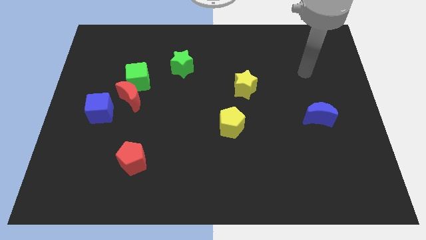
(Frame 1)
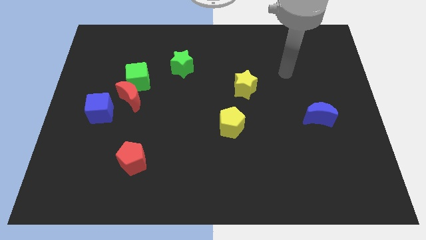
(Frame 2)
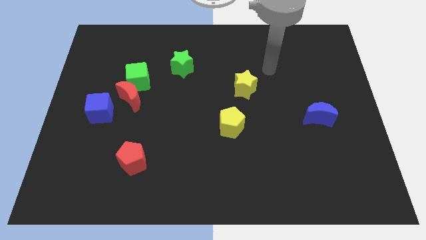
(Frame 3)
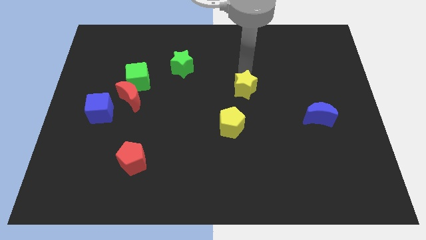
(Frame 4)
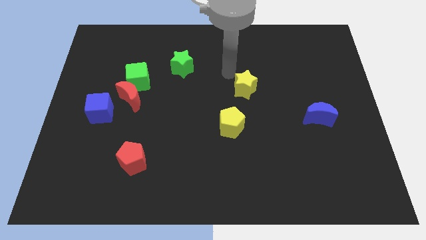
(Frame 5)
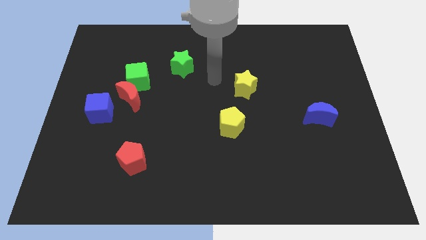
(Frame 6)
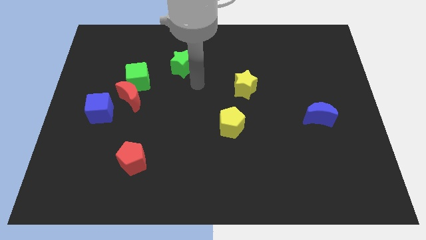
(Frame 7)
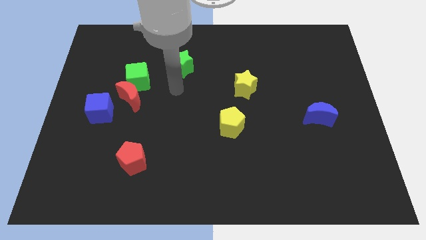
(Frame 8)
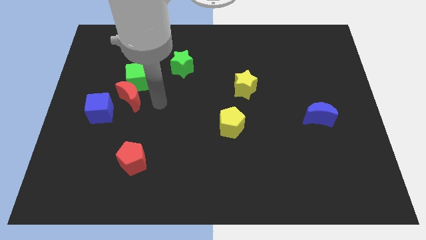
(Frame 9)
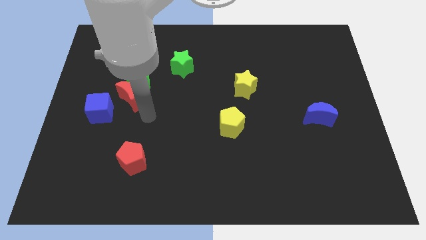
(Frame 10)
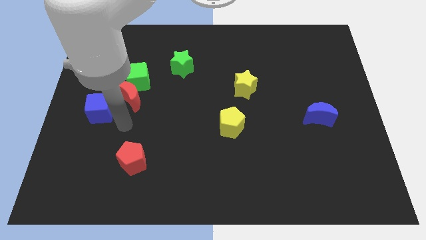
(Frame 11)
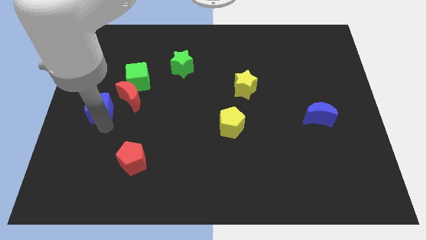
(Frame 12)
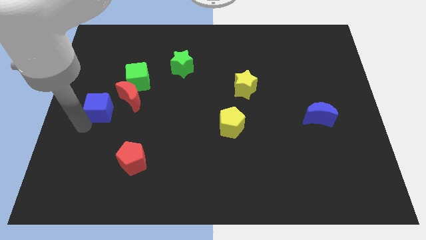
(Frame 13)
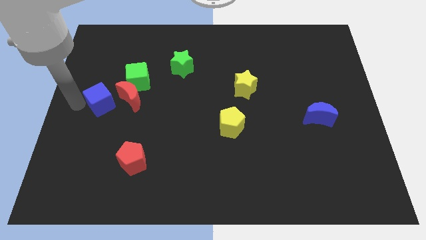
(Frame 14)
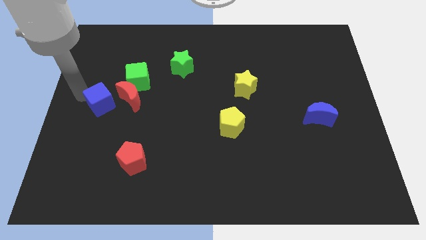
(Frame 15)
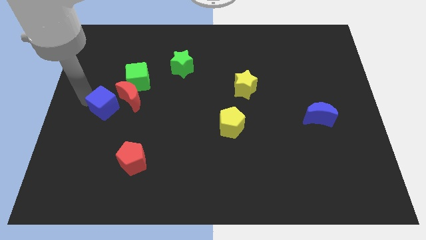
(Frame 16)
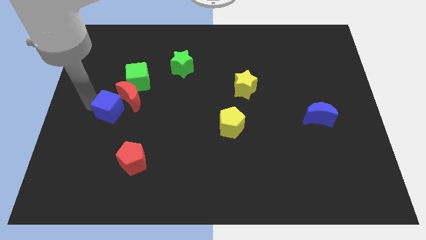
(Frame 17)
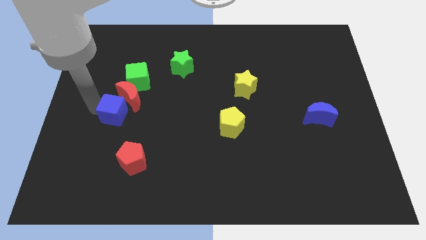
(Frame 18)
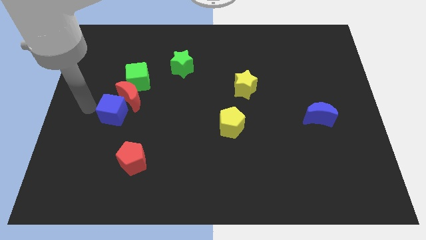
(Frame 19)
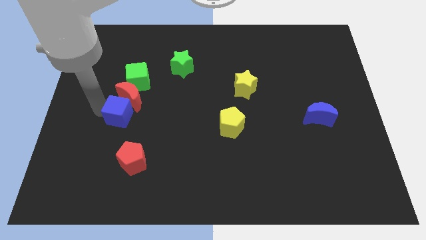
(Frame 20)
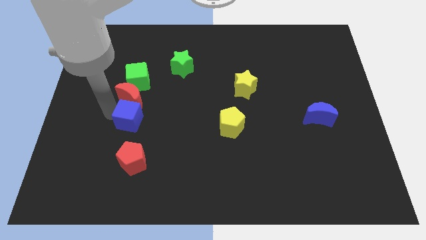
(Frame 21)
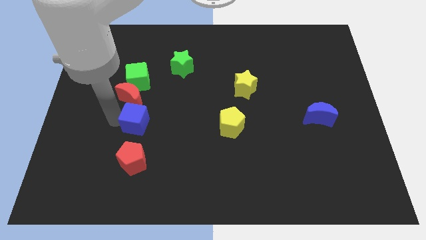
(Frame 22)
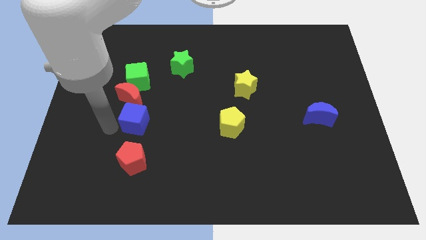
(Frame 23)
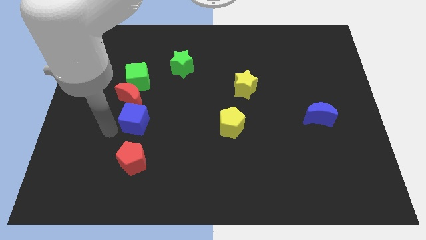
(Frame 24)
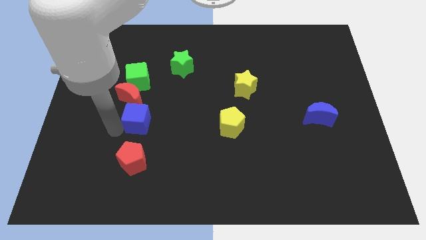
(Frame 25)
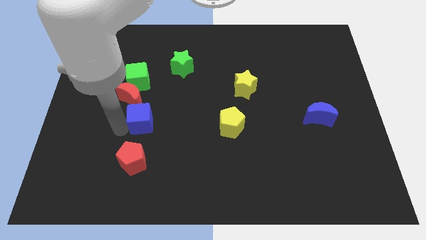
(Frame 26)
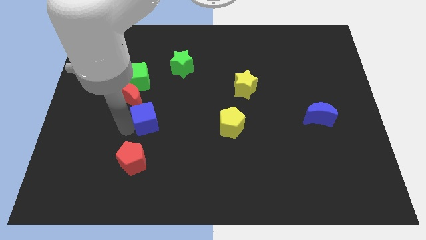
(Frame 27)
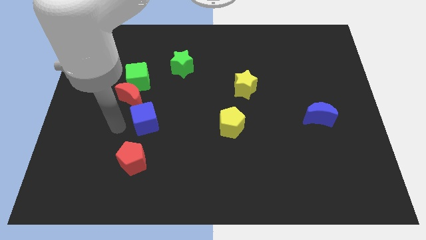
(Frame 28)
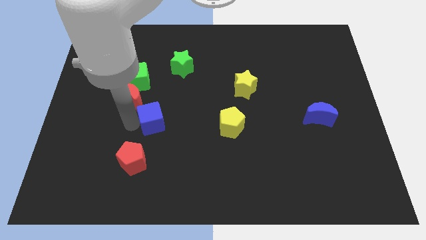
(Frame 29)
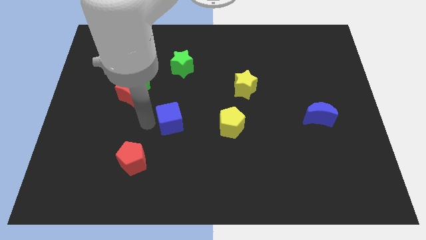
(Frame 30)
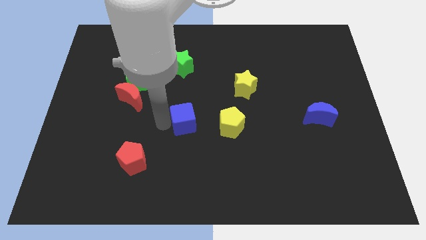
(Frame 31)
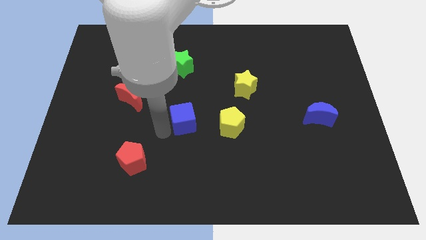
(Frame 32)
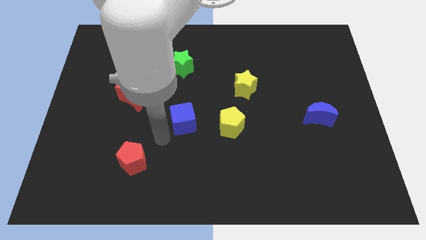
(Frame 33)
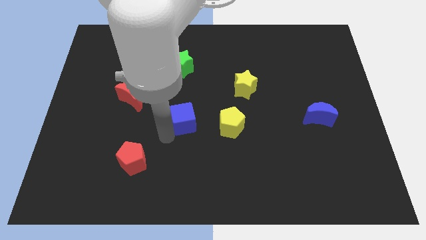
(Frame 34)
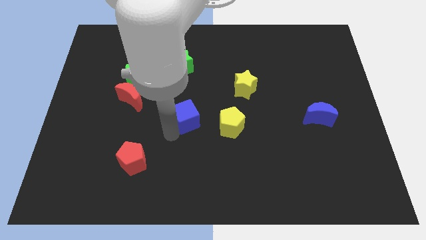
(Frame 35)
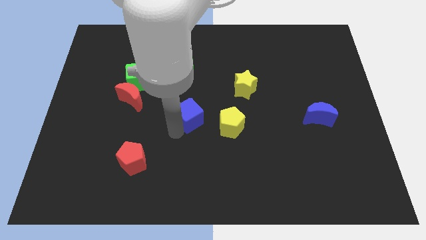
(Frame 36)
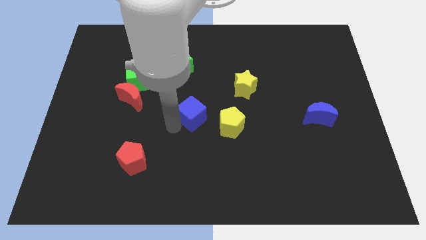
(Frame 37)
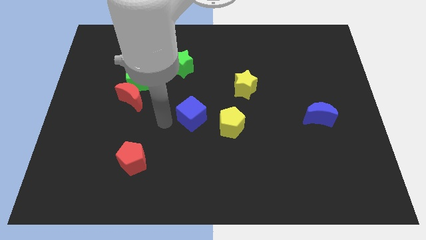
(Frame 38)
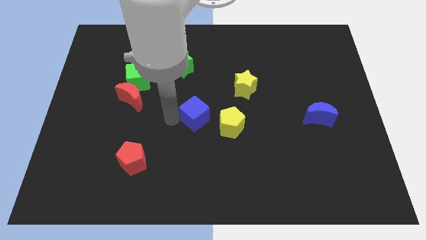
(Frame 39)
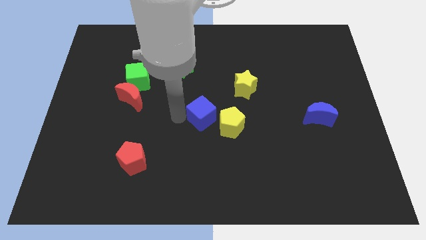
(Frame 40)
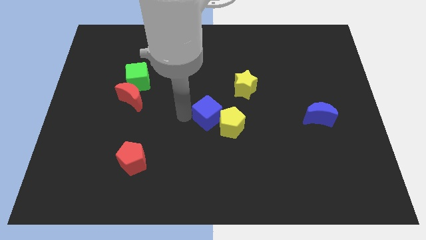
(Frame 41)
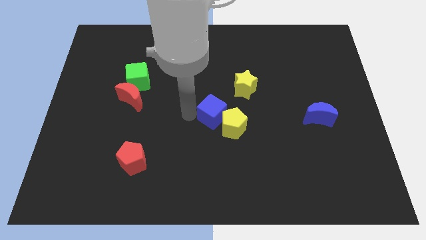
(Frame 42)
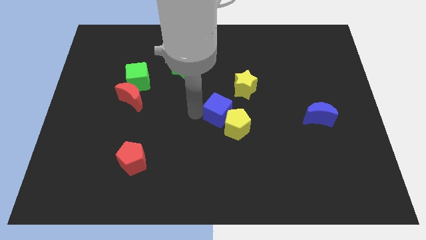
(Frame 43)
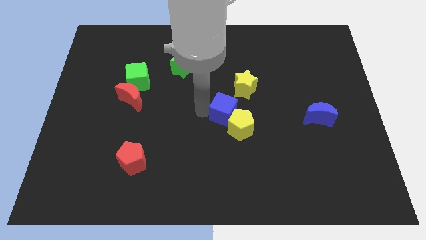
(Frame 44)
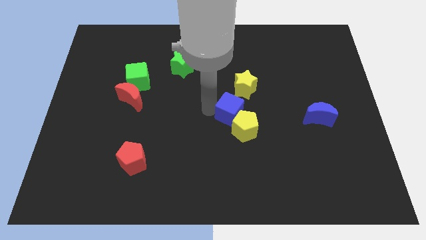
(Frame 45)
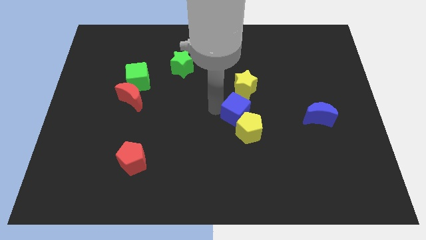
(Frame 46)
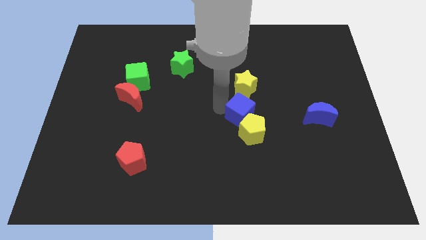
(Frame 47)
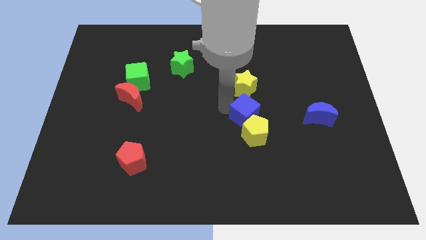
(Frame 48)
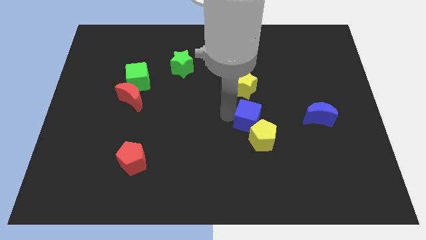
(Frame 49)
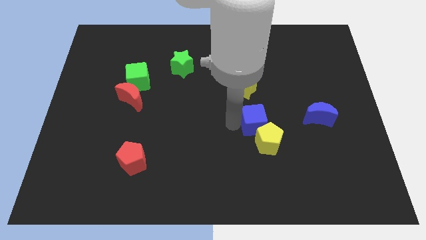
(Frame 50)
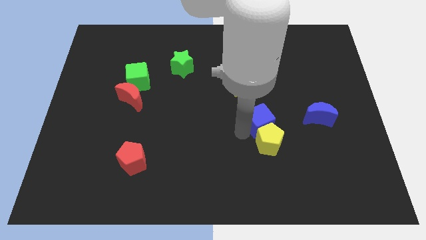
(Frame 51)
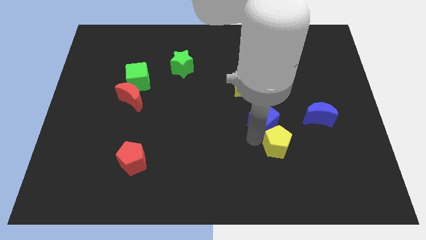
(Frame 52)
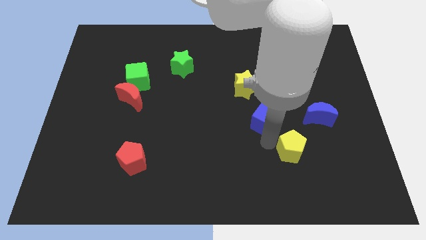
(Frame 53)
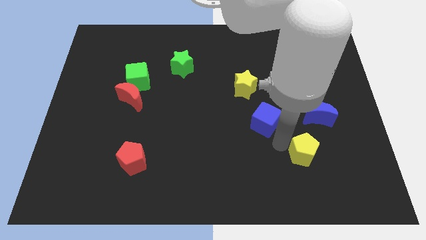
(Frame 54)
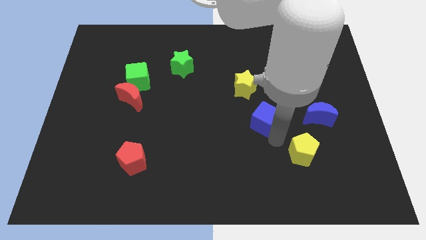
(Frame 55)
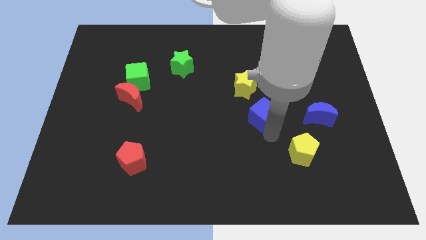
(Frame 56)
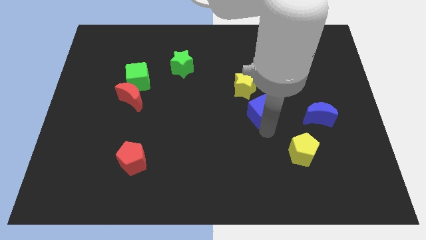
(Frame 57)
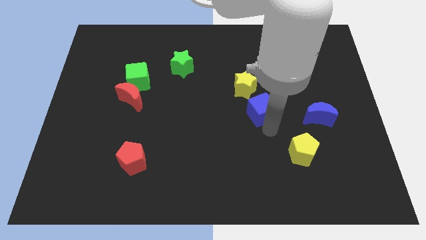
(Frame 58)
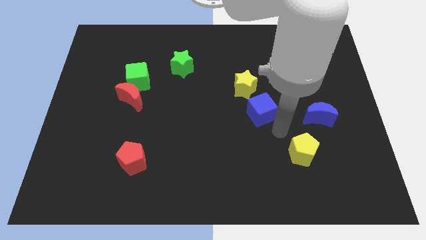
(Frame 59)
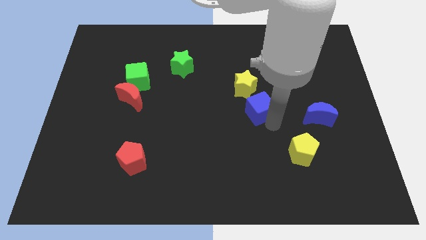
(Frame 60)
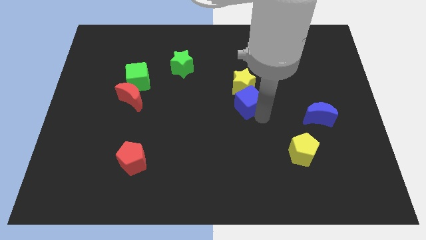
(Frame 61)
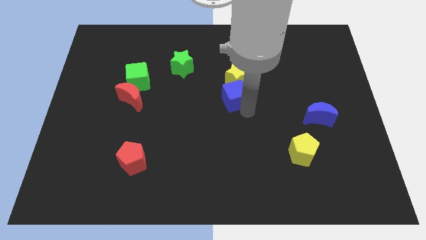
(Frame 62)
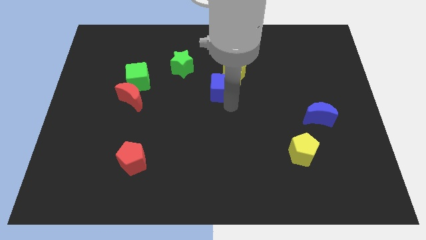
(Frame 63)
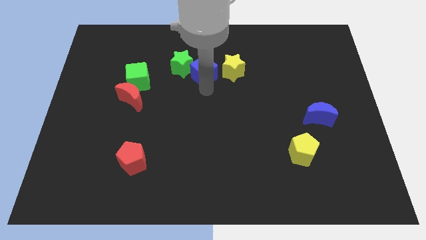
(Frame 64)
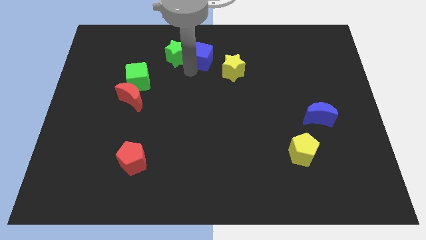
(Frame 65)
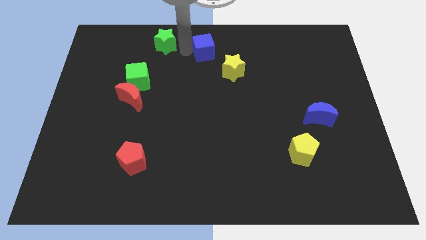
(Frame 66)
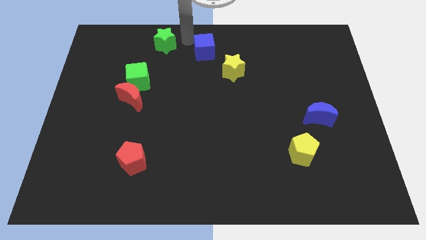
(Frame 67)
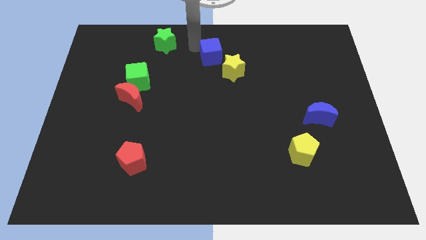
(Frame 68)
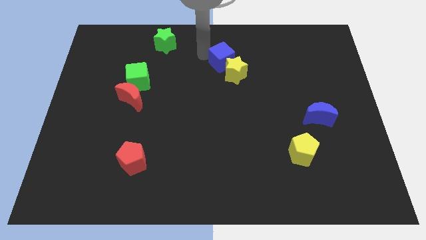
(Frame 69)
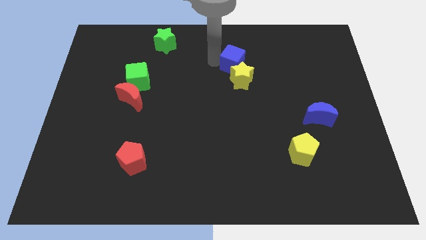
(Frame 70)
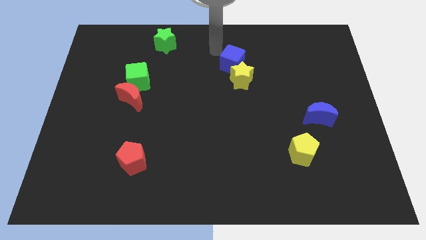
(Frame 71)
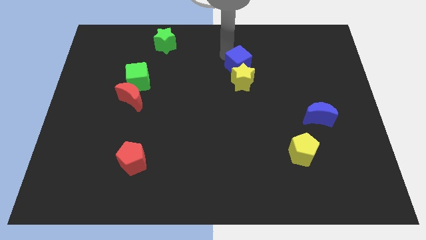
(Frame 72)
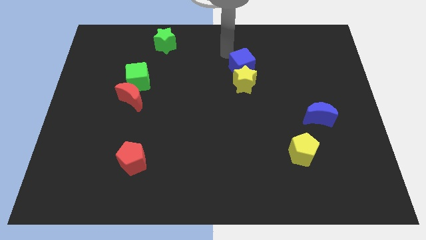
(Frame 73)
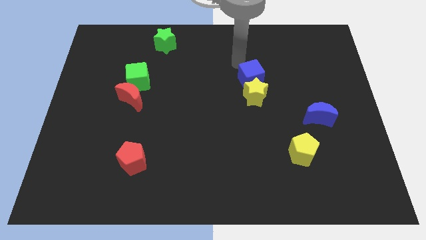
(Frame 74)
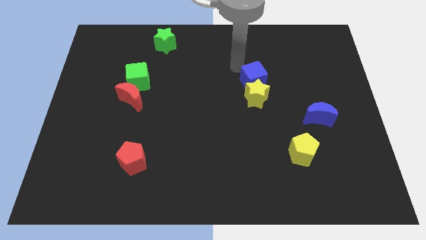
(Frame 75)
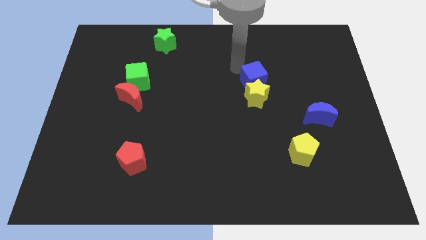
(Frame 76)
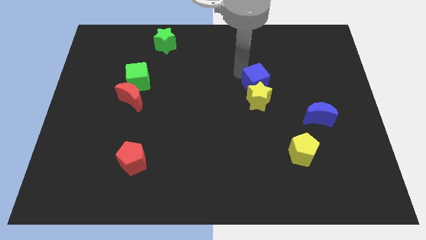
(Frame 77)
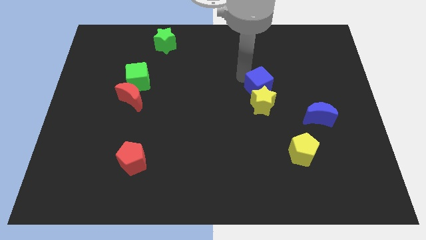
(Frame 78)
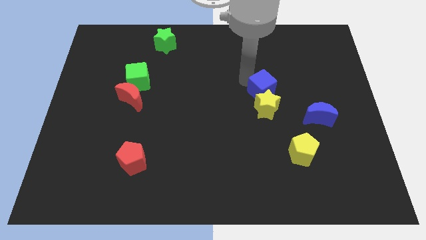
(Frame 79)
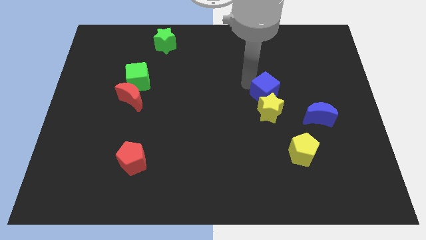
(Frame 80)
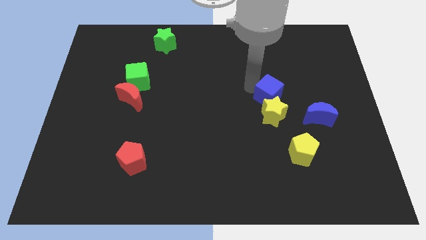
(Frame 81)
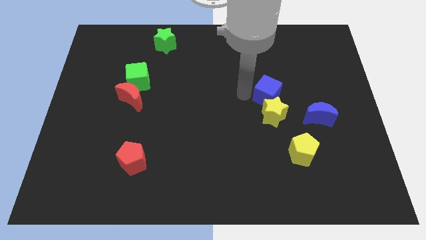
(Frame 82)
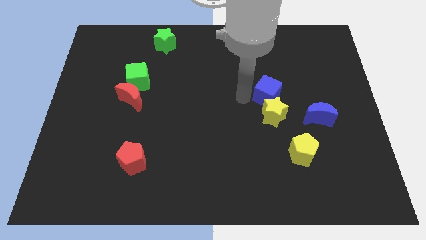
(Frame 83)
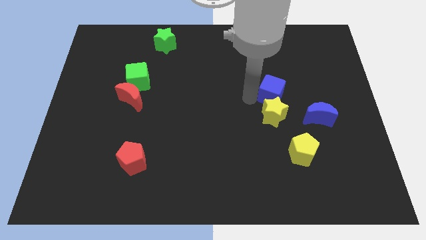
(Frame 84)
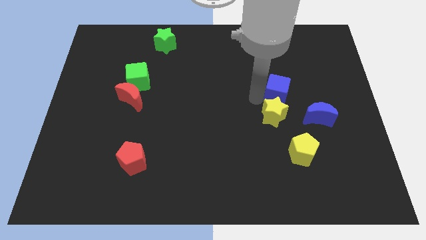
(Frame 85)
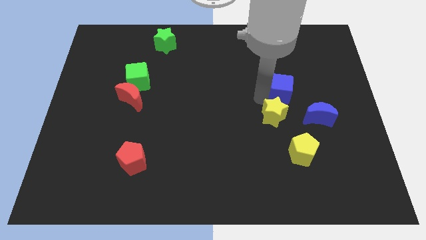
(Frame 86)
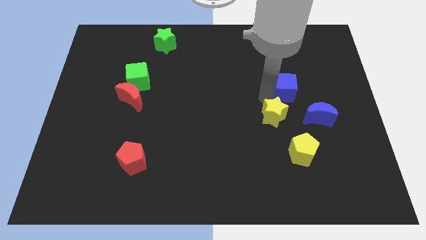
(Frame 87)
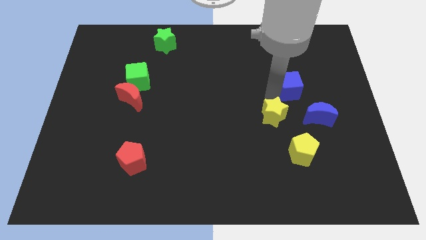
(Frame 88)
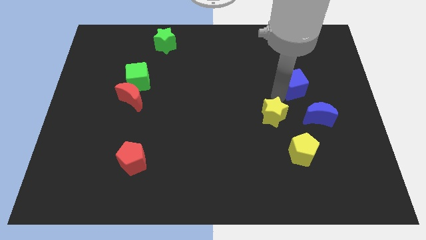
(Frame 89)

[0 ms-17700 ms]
slide the blue cube to the top side of the blue moon
